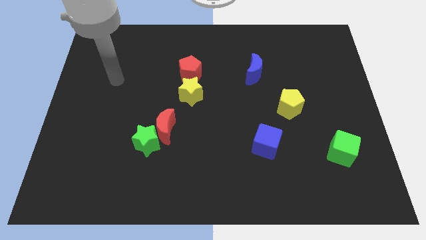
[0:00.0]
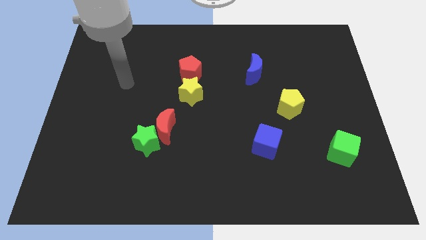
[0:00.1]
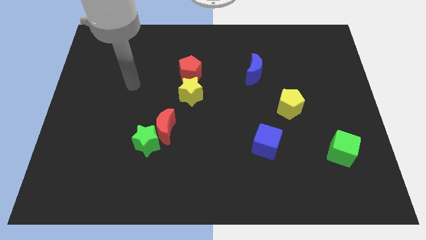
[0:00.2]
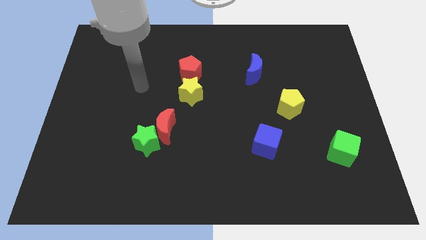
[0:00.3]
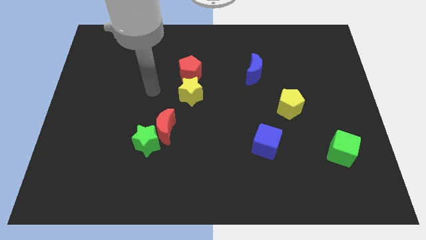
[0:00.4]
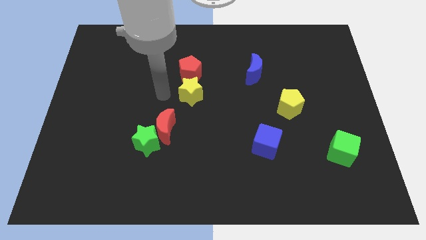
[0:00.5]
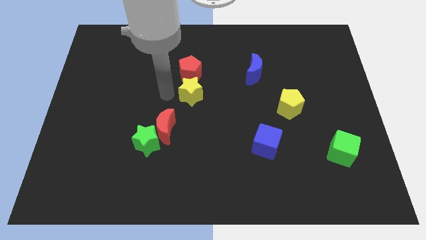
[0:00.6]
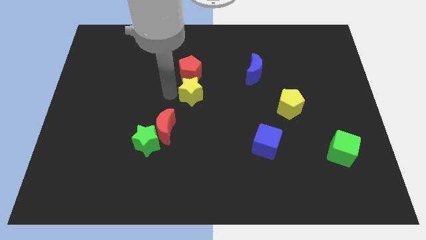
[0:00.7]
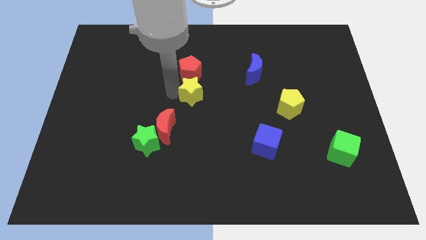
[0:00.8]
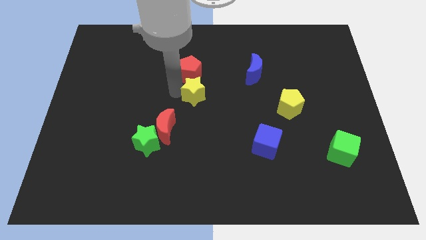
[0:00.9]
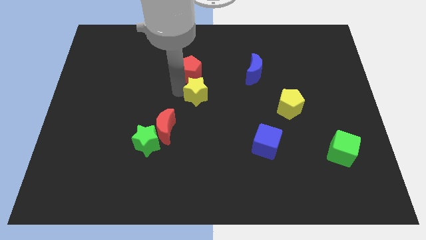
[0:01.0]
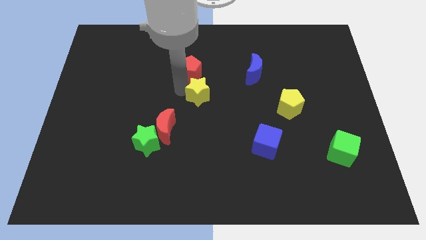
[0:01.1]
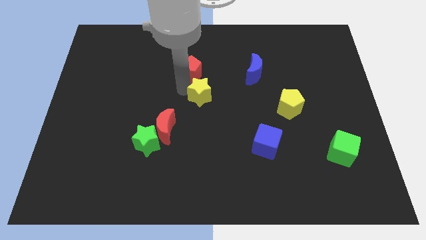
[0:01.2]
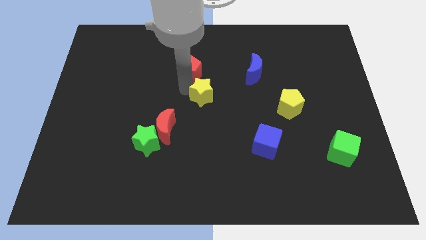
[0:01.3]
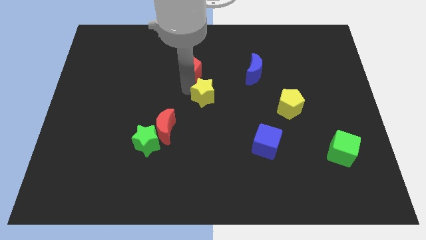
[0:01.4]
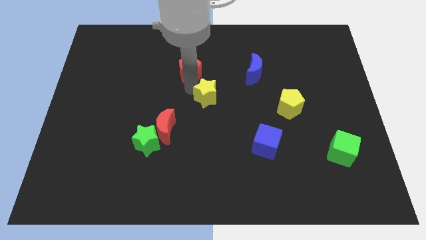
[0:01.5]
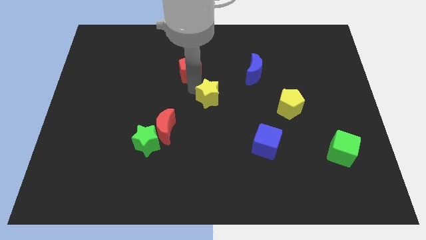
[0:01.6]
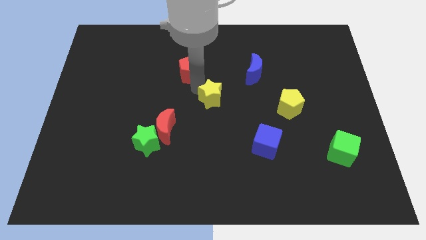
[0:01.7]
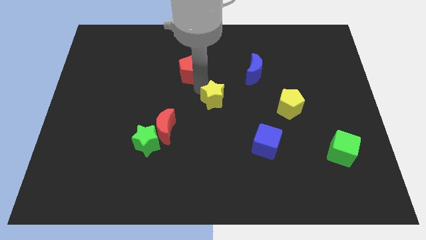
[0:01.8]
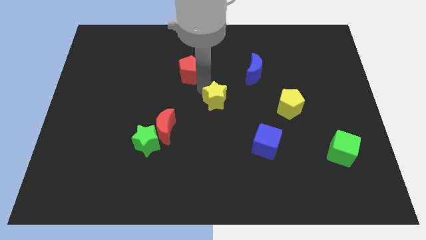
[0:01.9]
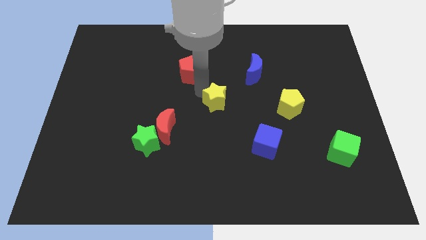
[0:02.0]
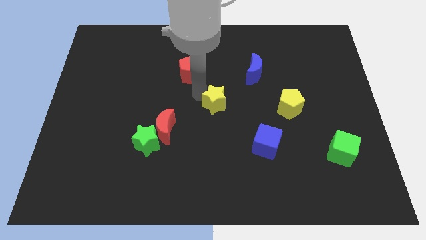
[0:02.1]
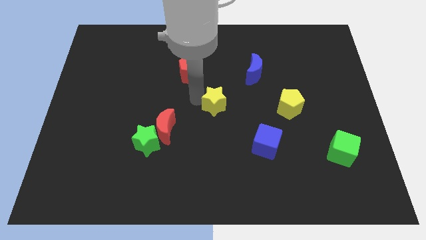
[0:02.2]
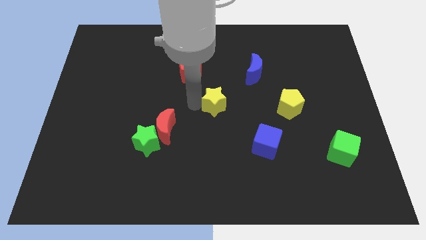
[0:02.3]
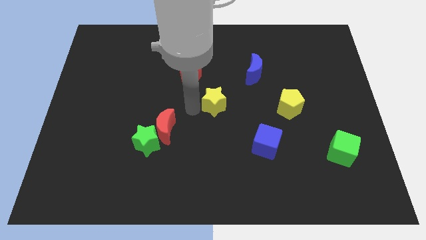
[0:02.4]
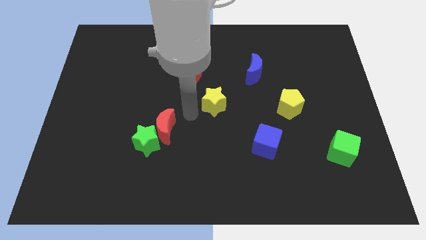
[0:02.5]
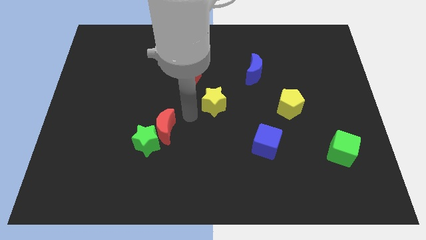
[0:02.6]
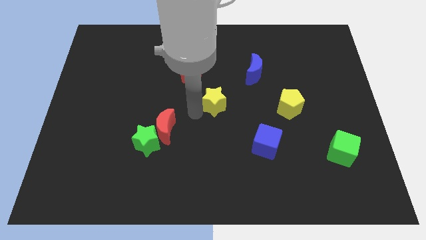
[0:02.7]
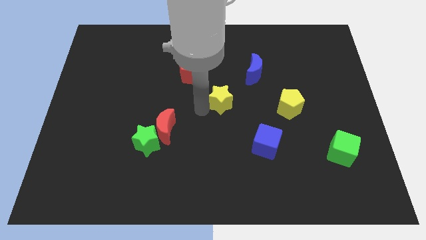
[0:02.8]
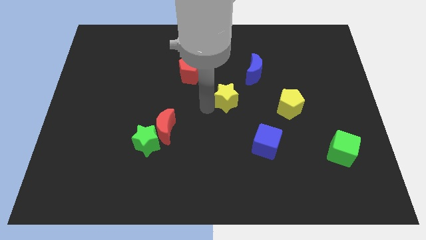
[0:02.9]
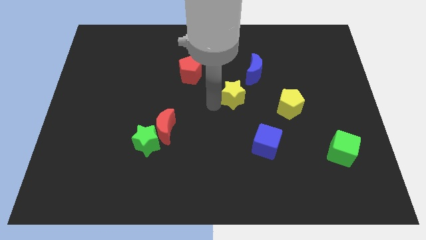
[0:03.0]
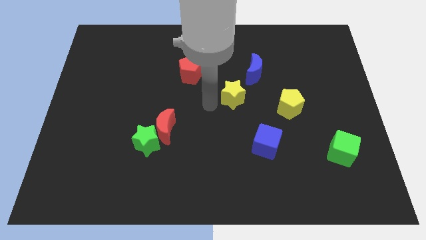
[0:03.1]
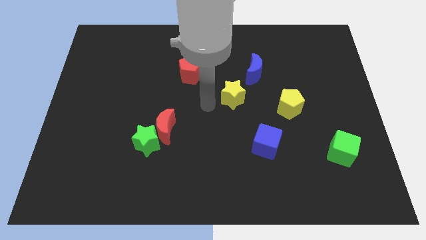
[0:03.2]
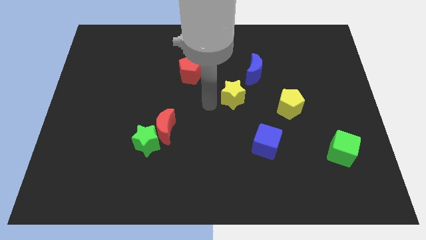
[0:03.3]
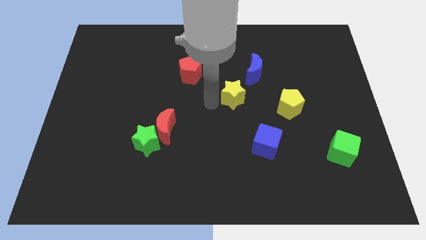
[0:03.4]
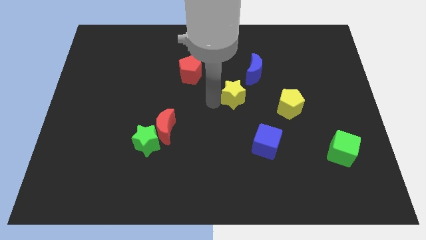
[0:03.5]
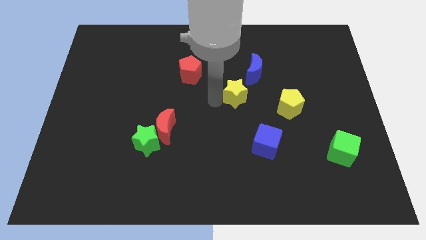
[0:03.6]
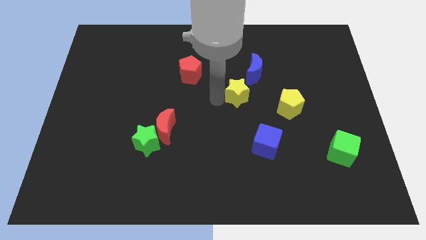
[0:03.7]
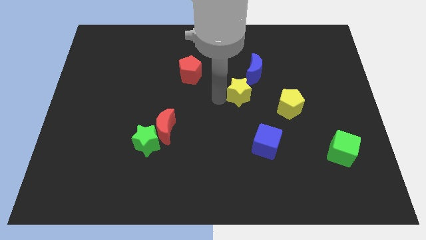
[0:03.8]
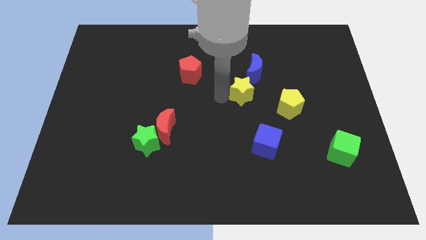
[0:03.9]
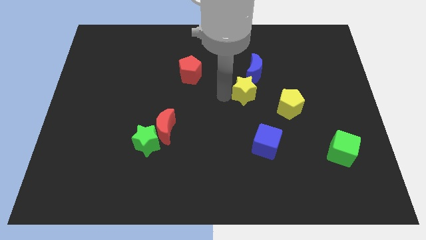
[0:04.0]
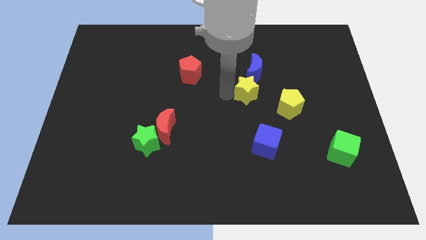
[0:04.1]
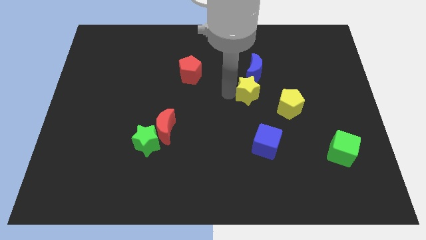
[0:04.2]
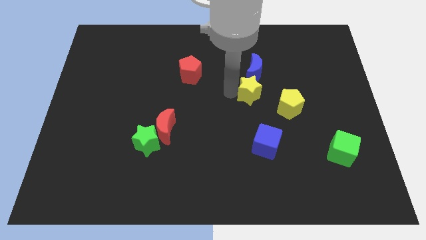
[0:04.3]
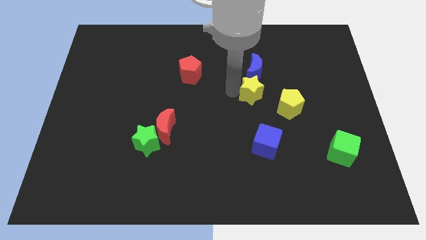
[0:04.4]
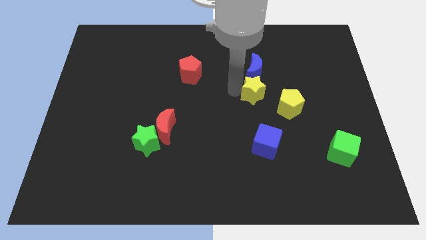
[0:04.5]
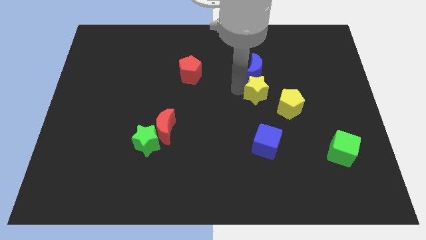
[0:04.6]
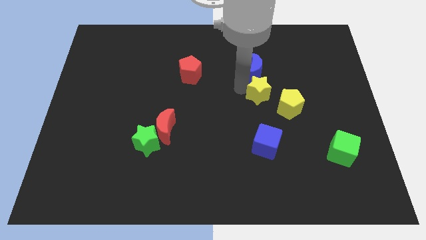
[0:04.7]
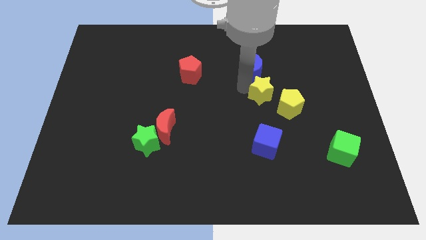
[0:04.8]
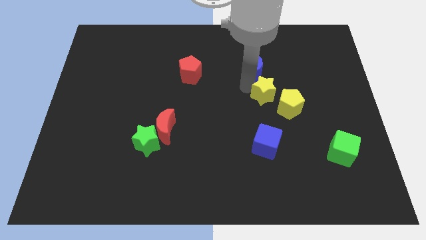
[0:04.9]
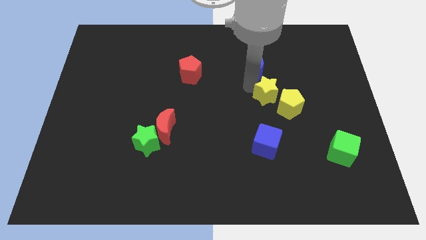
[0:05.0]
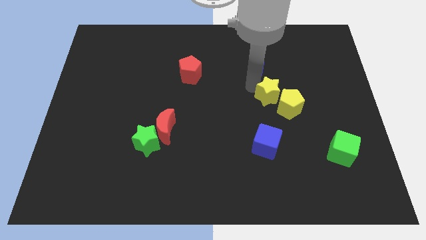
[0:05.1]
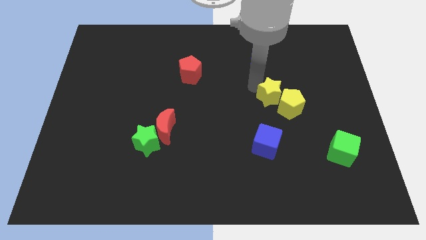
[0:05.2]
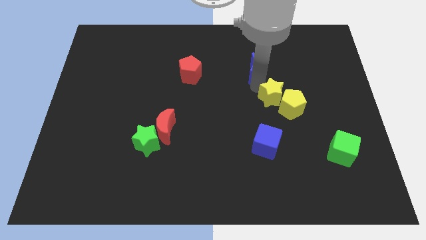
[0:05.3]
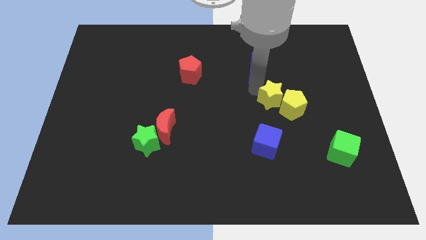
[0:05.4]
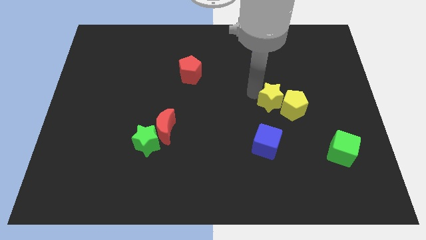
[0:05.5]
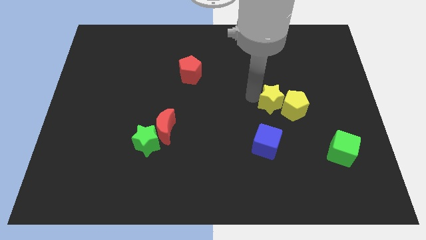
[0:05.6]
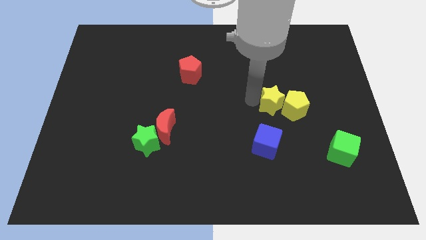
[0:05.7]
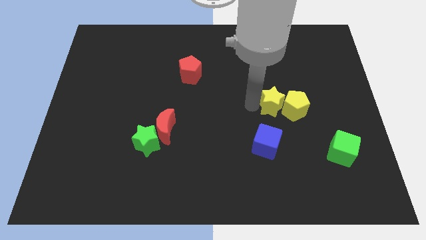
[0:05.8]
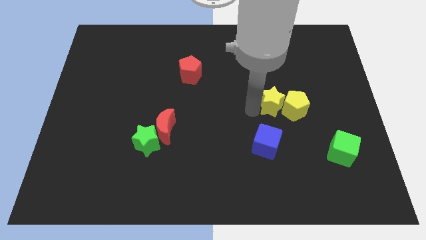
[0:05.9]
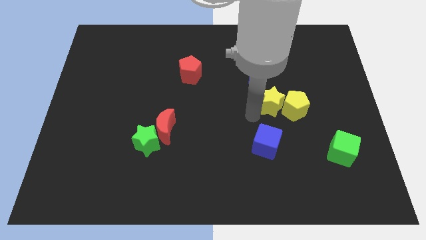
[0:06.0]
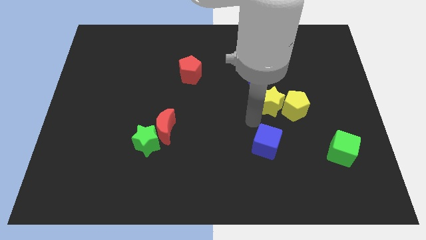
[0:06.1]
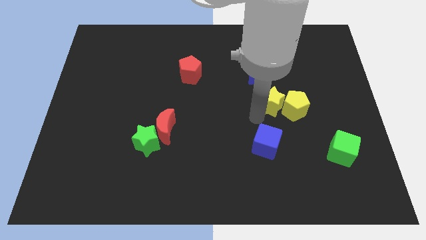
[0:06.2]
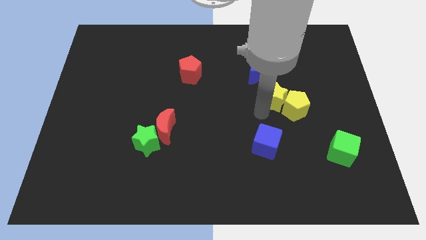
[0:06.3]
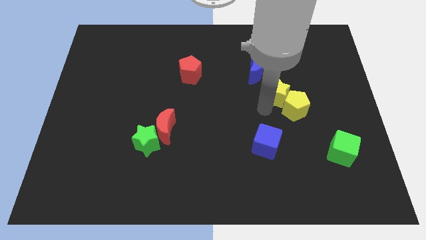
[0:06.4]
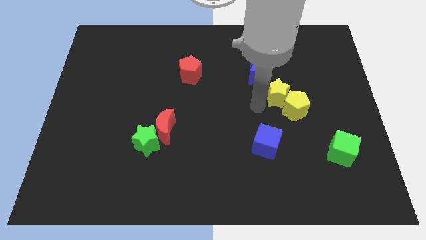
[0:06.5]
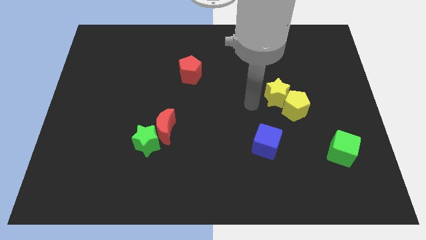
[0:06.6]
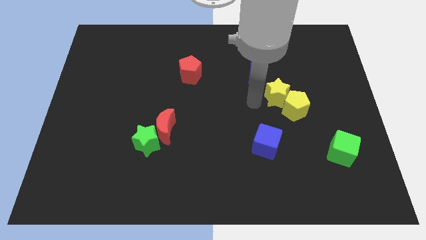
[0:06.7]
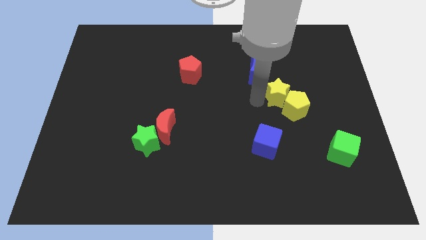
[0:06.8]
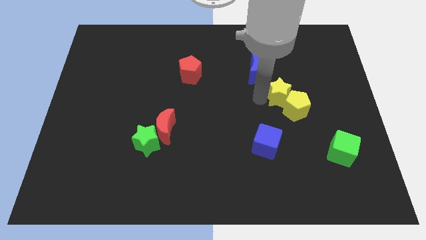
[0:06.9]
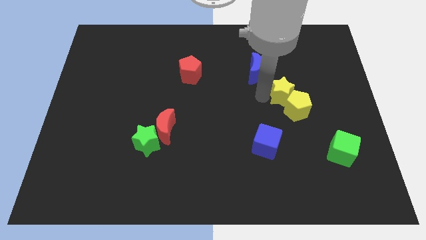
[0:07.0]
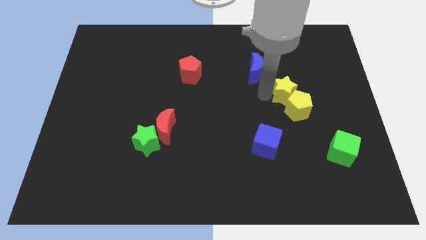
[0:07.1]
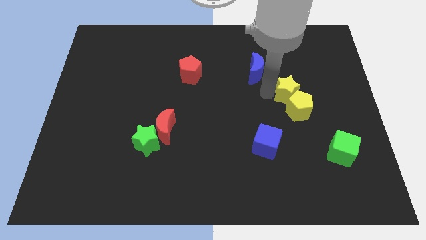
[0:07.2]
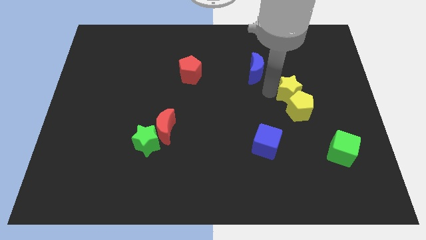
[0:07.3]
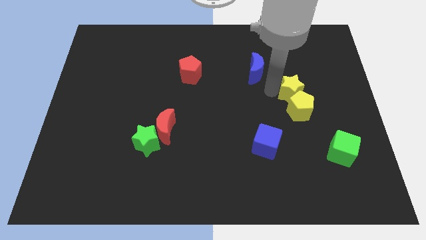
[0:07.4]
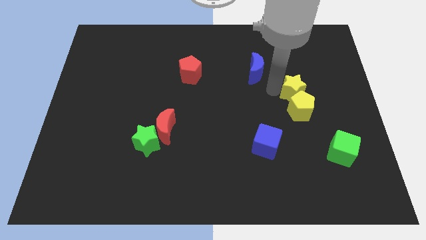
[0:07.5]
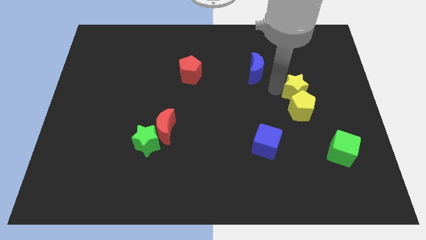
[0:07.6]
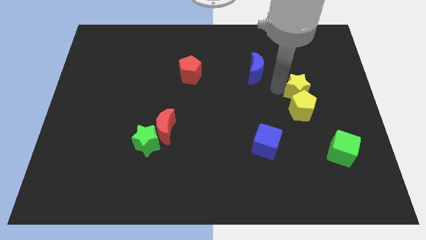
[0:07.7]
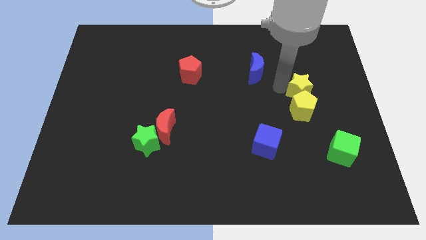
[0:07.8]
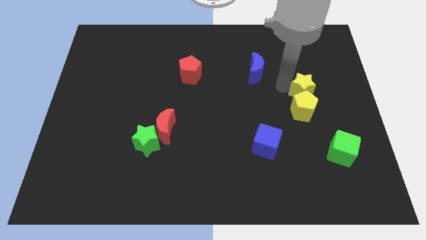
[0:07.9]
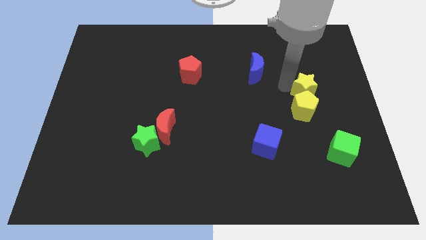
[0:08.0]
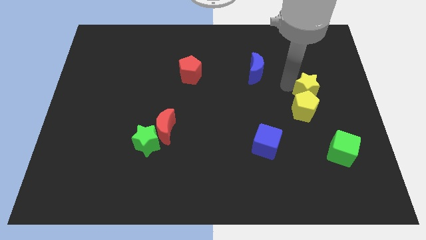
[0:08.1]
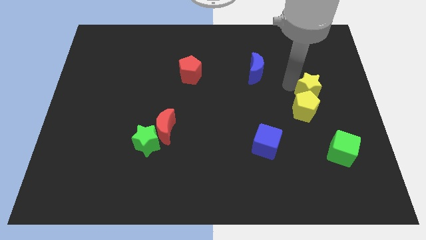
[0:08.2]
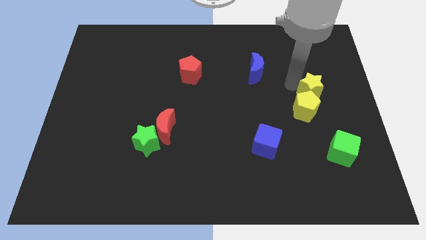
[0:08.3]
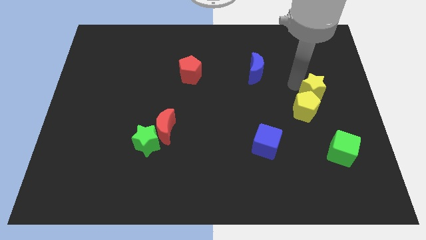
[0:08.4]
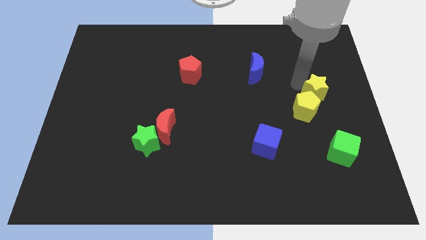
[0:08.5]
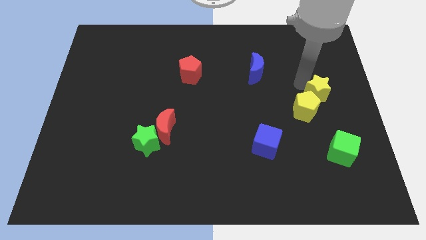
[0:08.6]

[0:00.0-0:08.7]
slide the yellow star to the right side of the board
